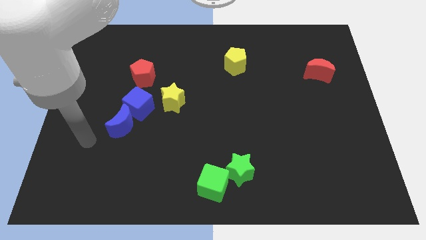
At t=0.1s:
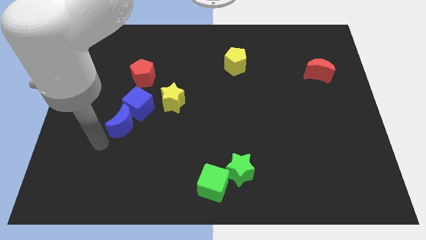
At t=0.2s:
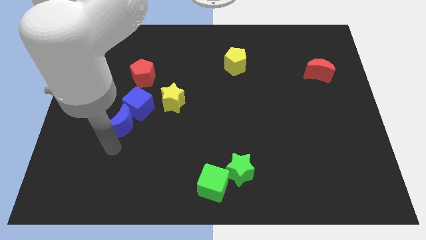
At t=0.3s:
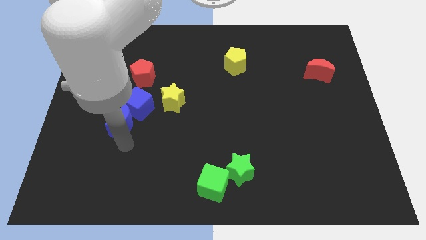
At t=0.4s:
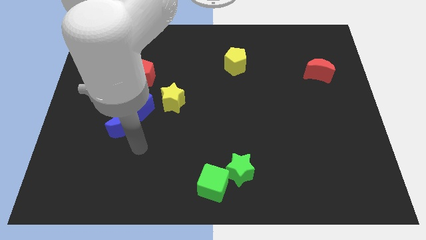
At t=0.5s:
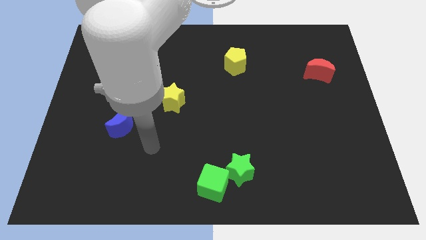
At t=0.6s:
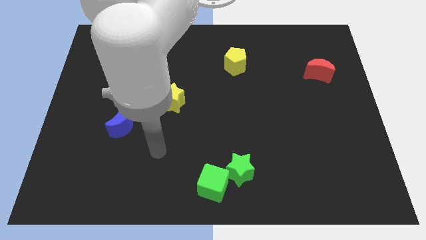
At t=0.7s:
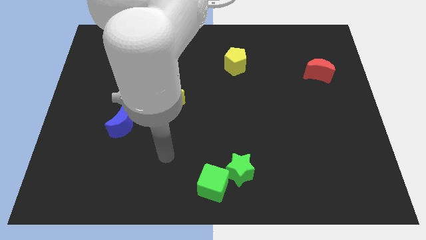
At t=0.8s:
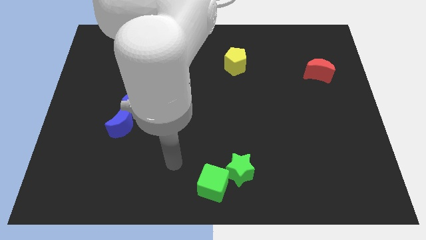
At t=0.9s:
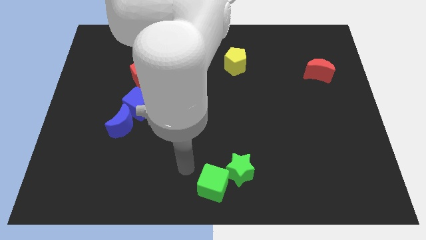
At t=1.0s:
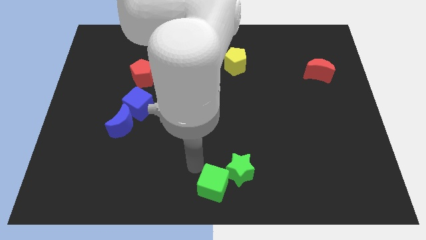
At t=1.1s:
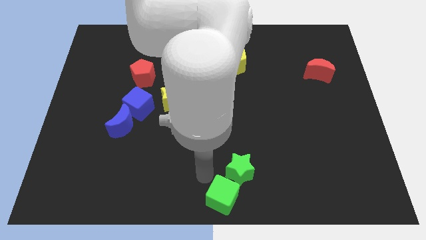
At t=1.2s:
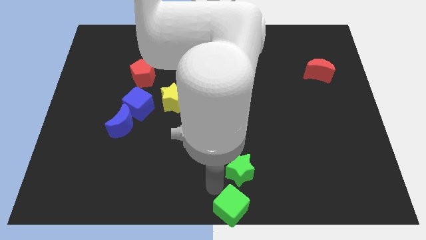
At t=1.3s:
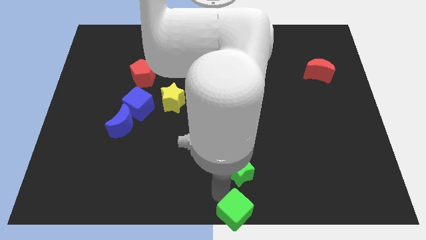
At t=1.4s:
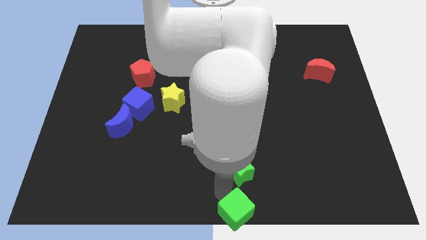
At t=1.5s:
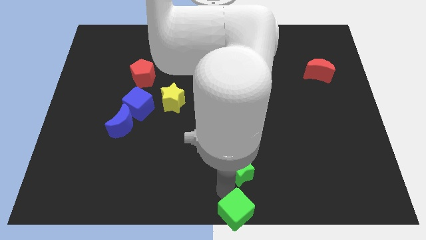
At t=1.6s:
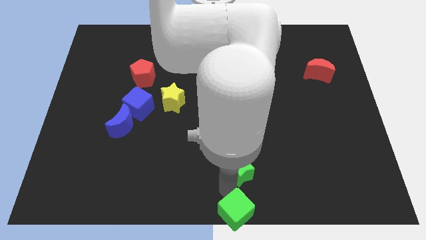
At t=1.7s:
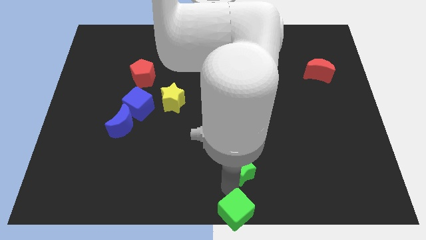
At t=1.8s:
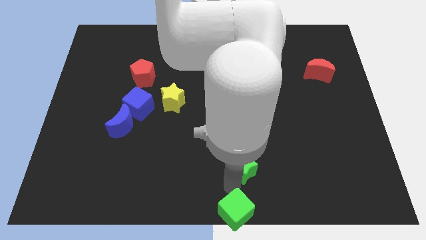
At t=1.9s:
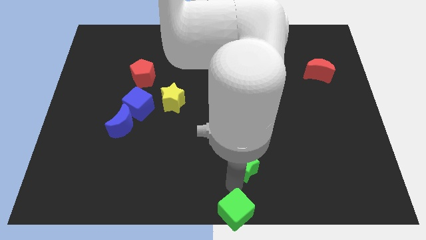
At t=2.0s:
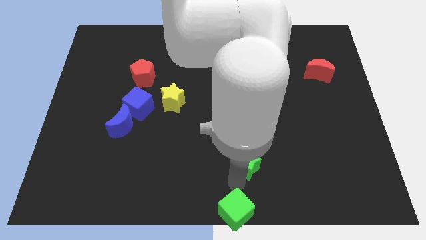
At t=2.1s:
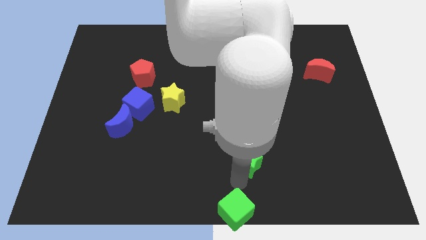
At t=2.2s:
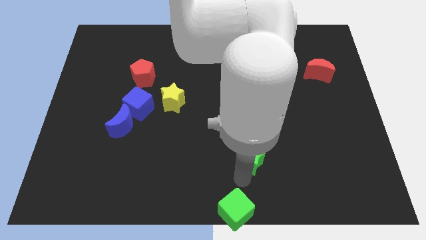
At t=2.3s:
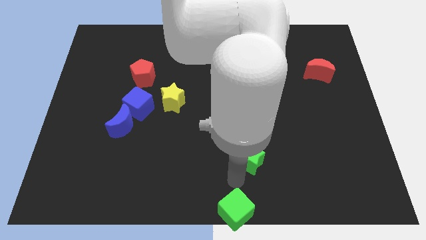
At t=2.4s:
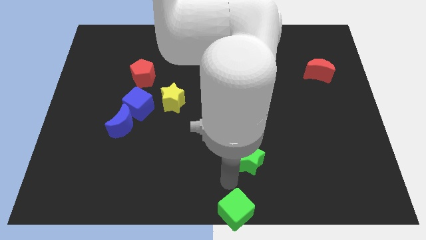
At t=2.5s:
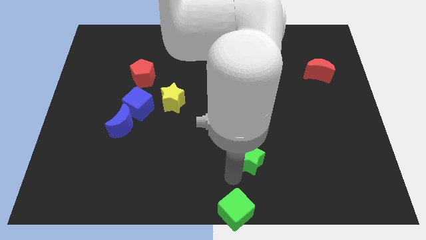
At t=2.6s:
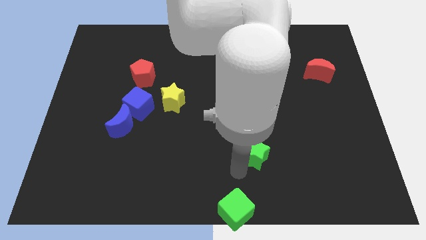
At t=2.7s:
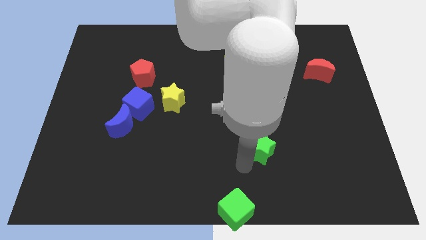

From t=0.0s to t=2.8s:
slide the green star somewhat upwards and to the right diagonally

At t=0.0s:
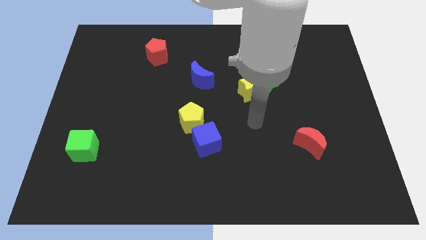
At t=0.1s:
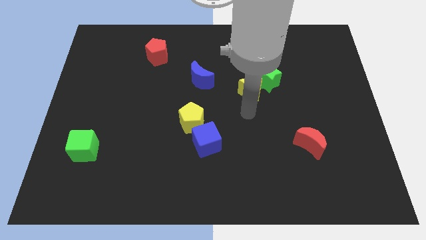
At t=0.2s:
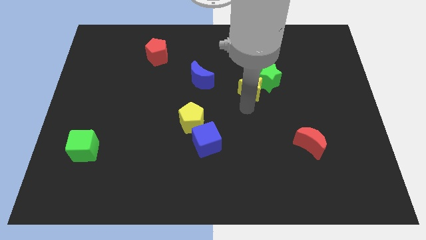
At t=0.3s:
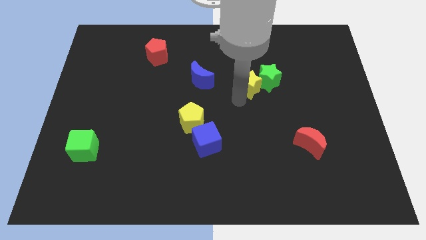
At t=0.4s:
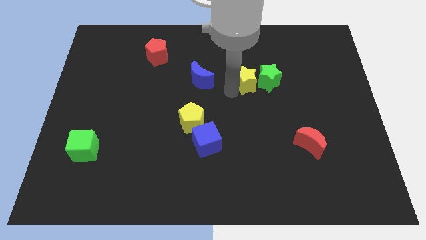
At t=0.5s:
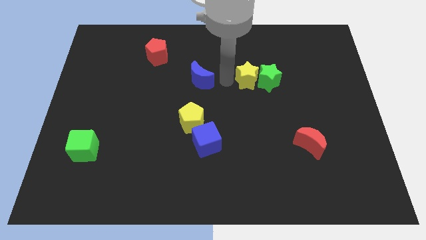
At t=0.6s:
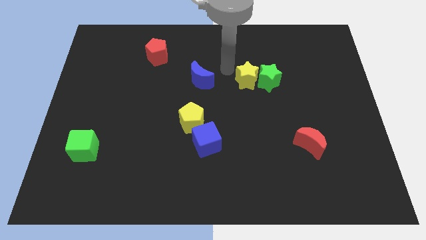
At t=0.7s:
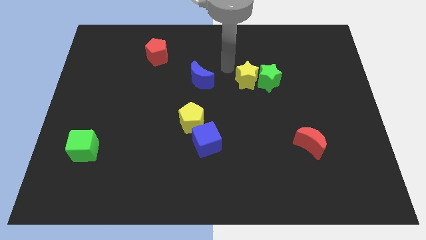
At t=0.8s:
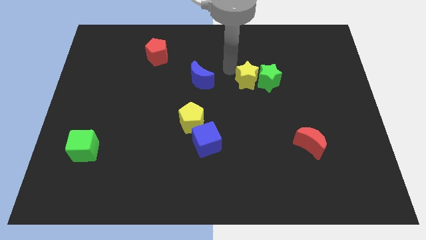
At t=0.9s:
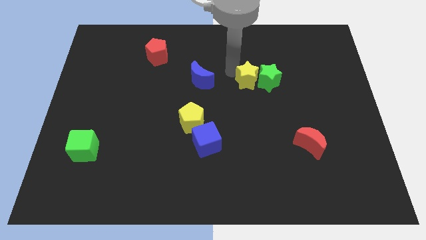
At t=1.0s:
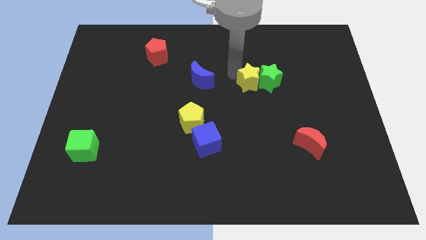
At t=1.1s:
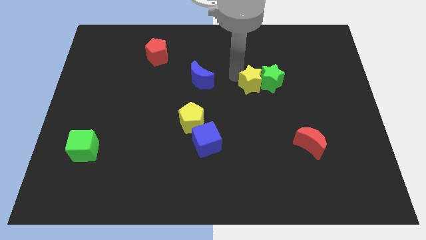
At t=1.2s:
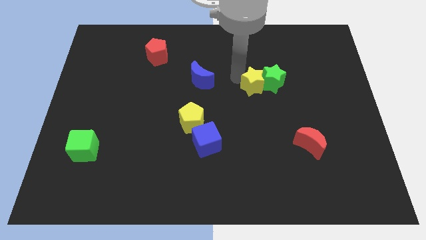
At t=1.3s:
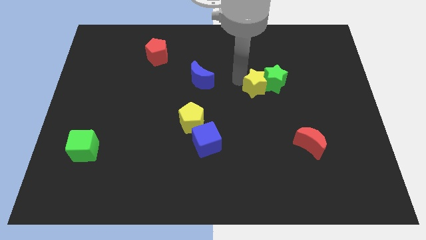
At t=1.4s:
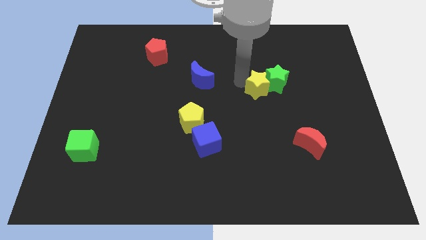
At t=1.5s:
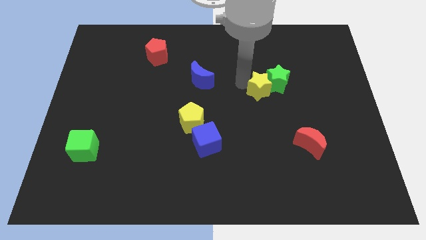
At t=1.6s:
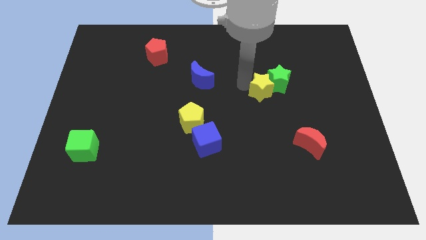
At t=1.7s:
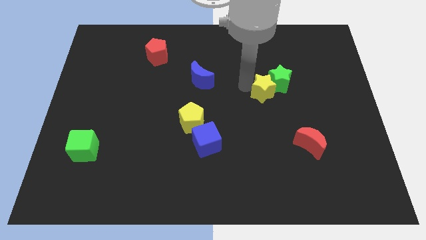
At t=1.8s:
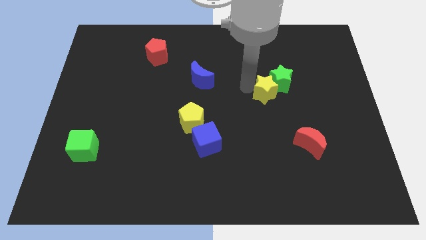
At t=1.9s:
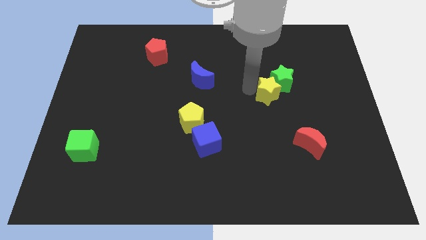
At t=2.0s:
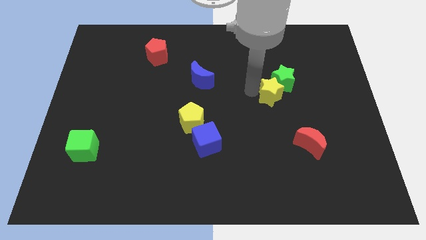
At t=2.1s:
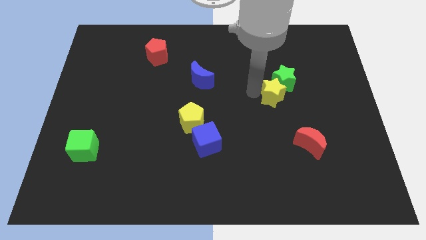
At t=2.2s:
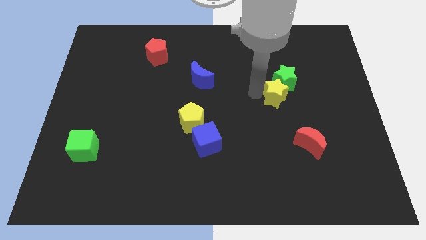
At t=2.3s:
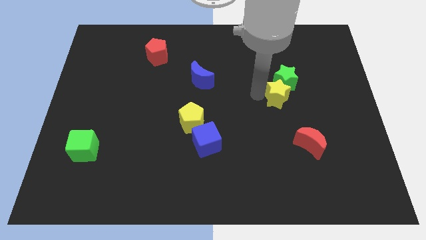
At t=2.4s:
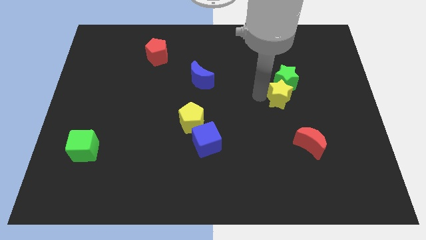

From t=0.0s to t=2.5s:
slightly push the yellow star to the right

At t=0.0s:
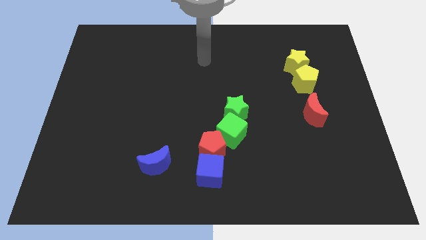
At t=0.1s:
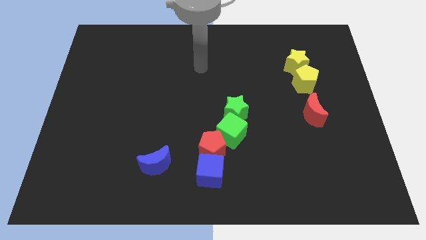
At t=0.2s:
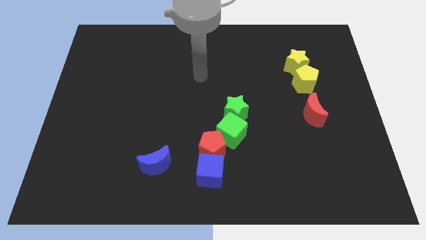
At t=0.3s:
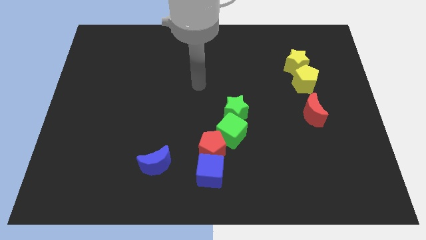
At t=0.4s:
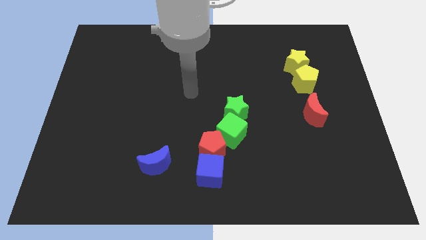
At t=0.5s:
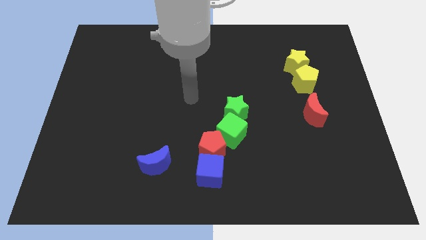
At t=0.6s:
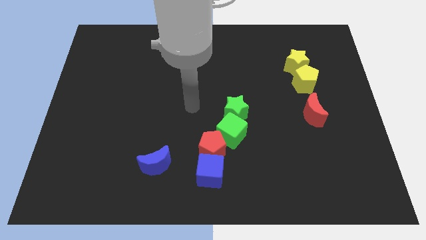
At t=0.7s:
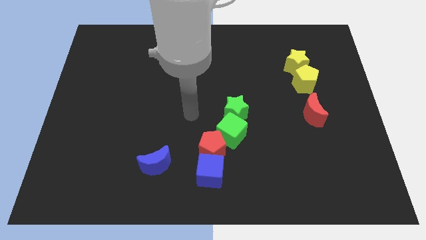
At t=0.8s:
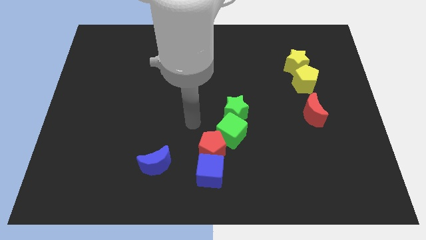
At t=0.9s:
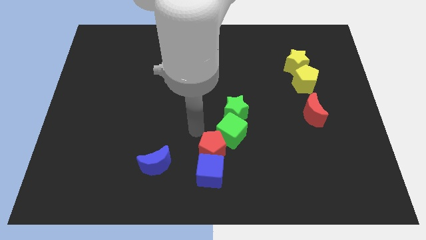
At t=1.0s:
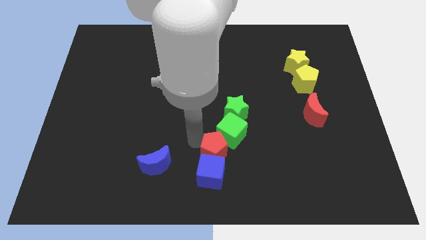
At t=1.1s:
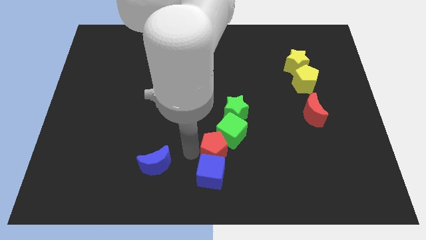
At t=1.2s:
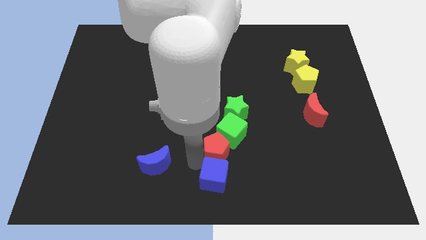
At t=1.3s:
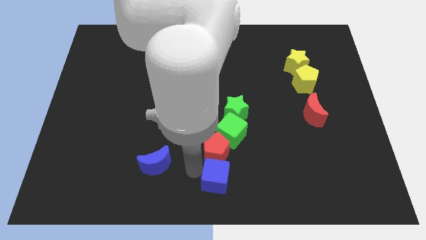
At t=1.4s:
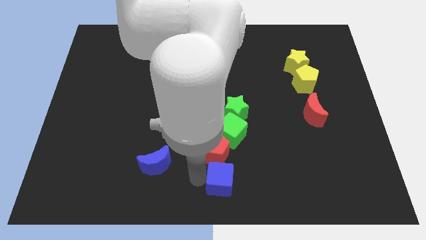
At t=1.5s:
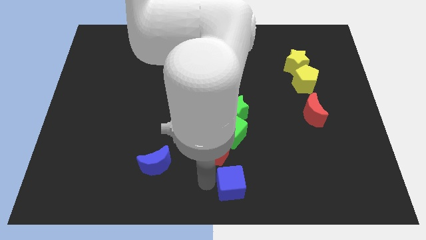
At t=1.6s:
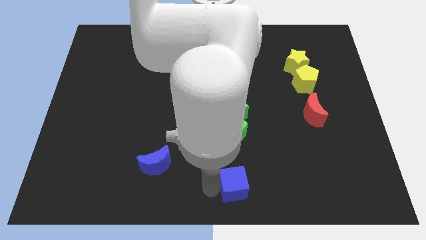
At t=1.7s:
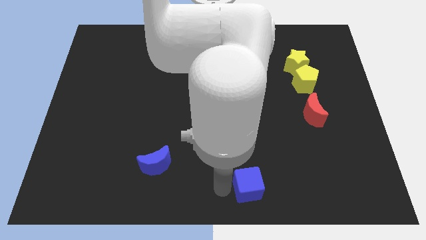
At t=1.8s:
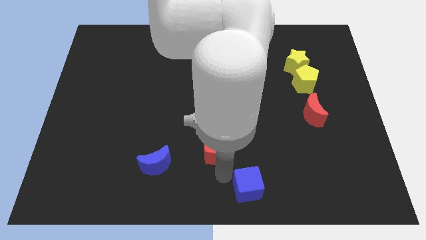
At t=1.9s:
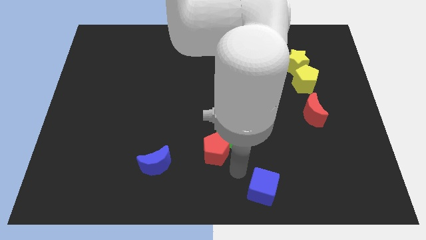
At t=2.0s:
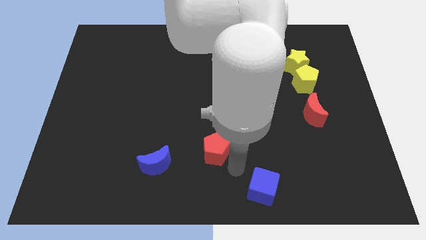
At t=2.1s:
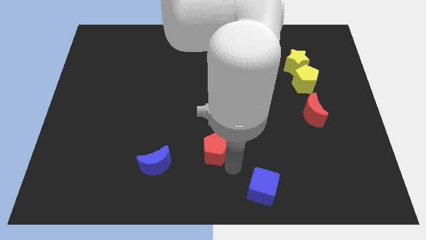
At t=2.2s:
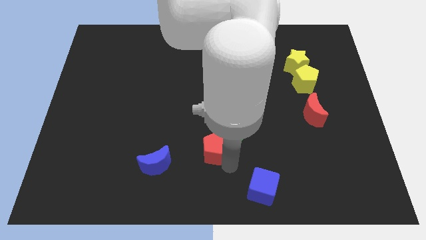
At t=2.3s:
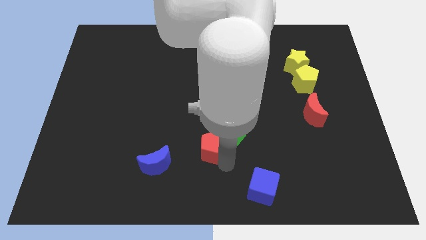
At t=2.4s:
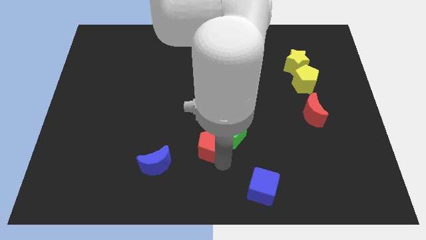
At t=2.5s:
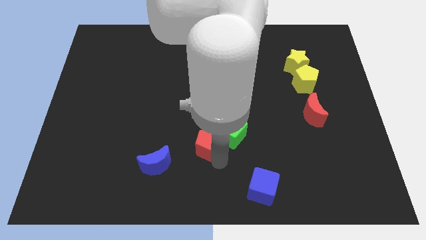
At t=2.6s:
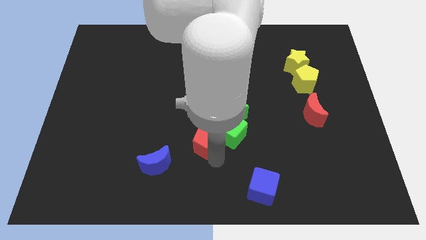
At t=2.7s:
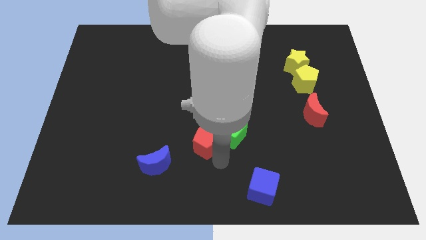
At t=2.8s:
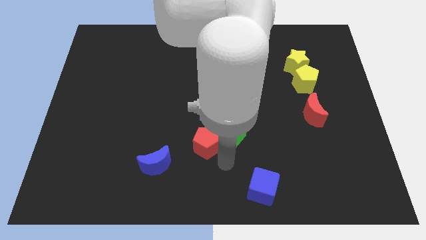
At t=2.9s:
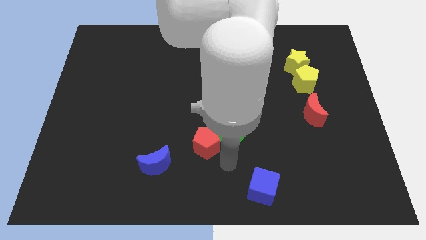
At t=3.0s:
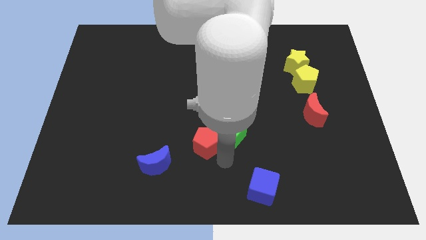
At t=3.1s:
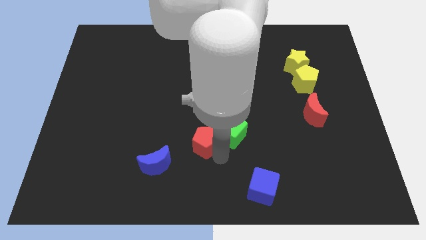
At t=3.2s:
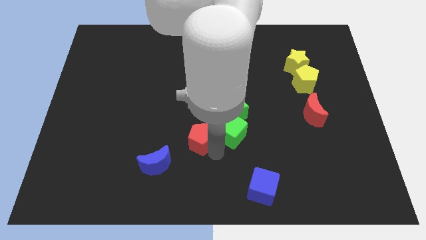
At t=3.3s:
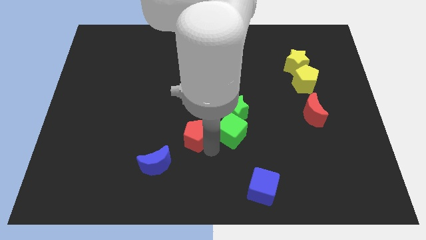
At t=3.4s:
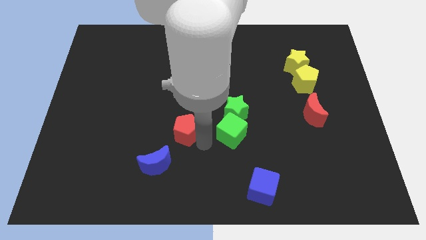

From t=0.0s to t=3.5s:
move the red pentagon somewhat up and to the left
